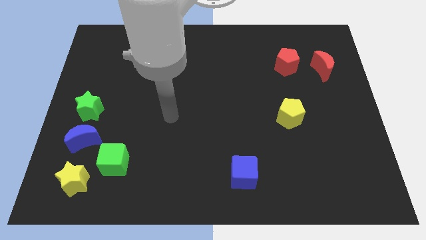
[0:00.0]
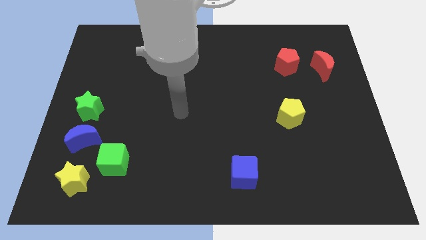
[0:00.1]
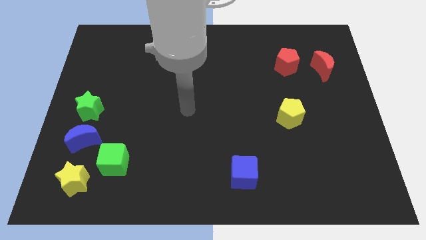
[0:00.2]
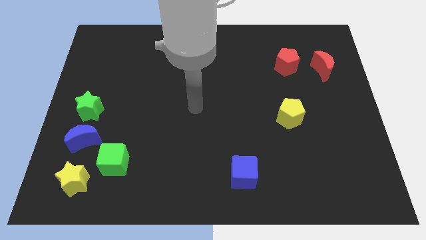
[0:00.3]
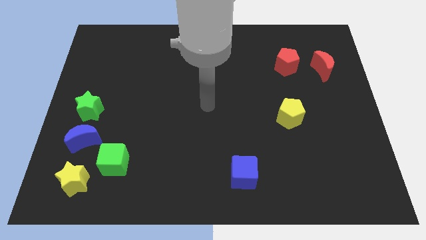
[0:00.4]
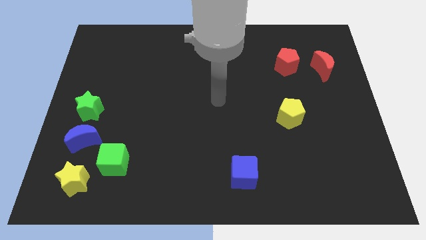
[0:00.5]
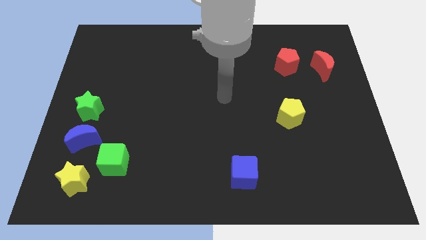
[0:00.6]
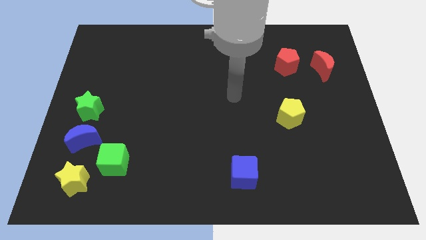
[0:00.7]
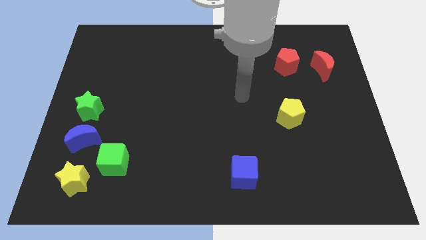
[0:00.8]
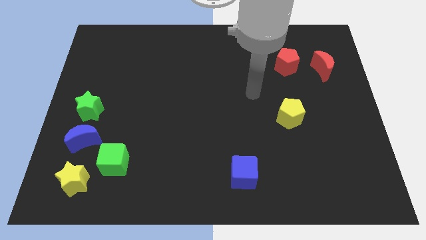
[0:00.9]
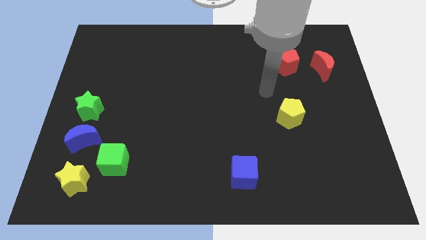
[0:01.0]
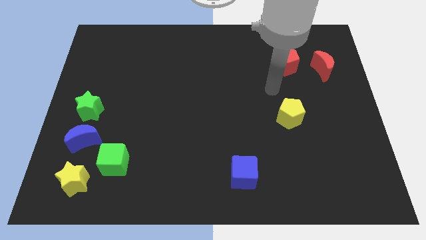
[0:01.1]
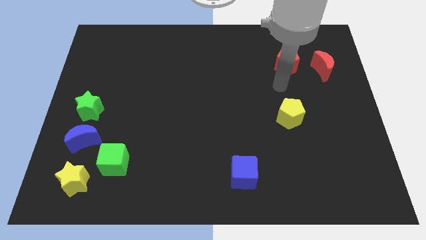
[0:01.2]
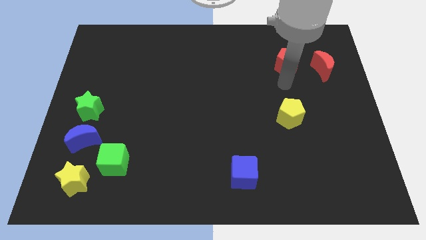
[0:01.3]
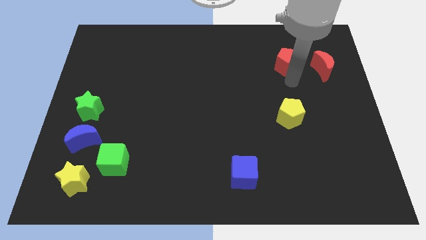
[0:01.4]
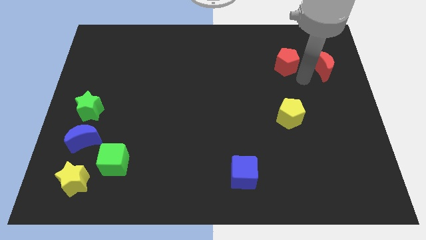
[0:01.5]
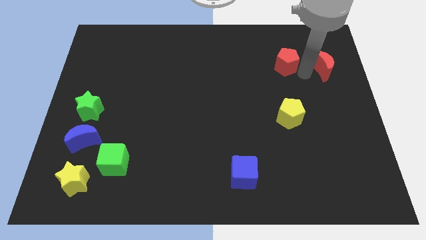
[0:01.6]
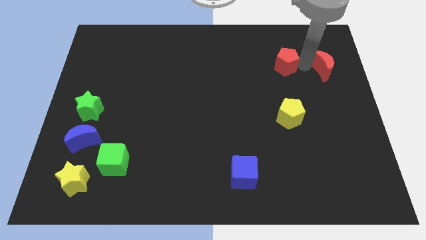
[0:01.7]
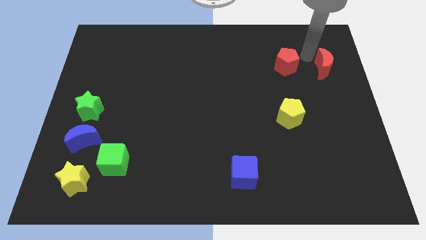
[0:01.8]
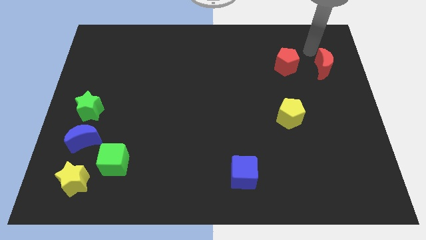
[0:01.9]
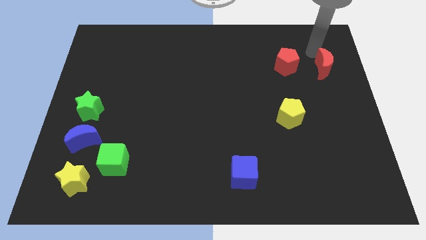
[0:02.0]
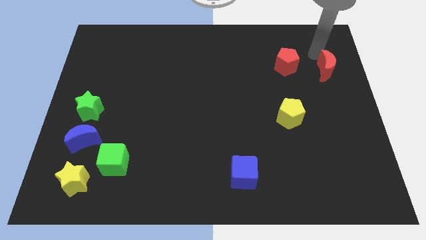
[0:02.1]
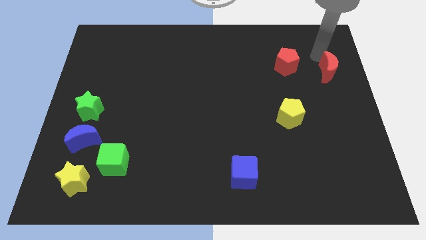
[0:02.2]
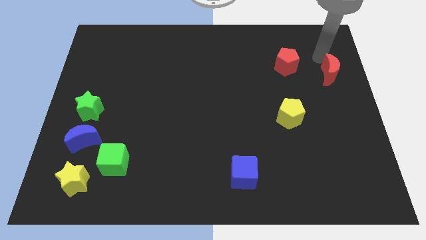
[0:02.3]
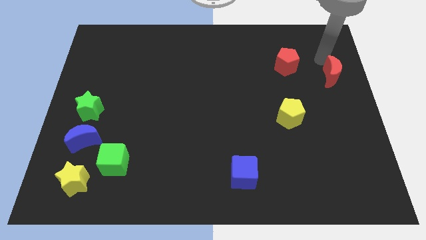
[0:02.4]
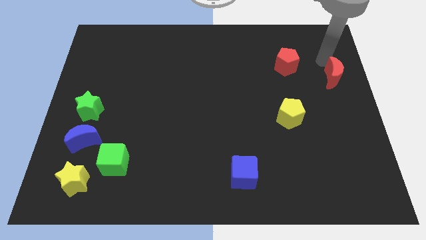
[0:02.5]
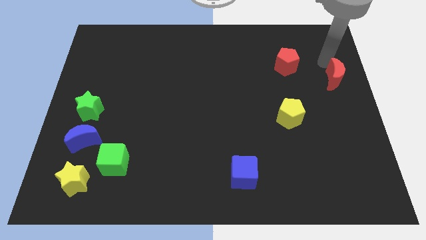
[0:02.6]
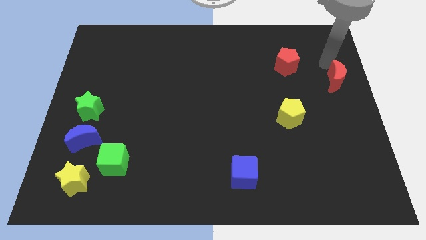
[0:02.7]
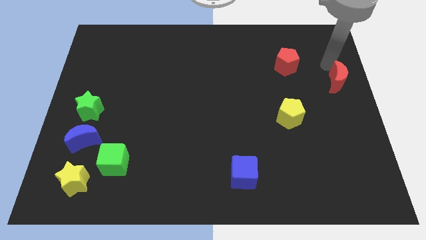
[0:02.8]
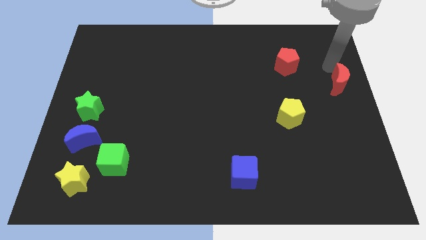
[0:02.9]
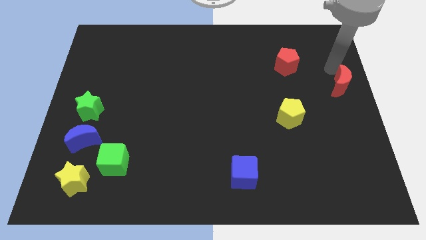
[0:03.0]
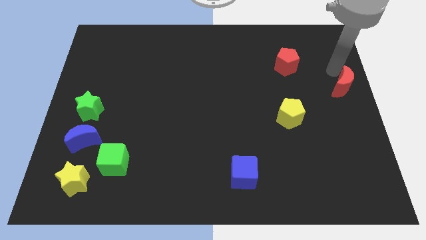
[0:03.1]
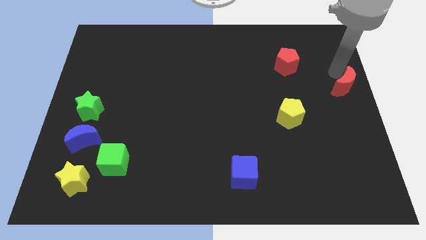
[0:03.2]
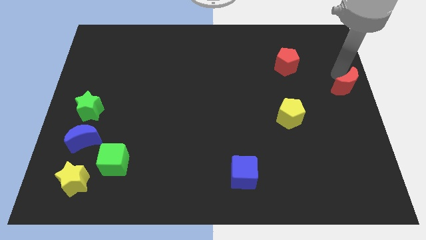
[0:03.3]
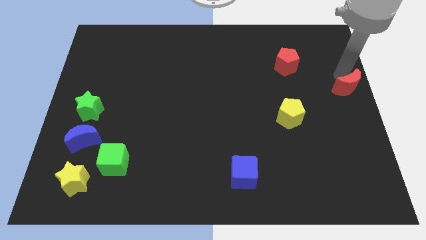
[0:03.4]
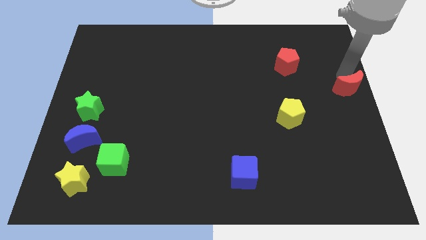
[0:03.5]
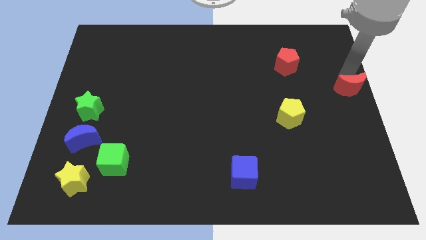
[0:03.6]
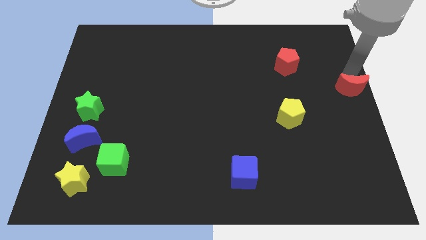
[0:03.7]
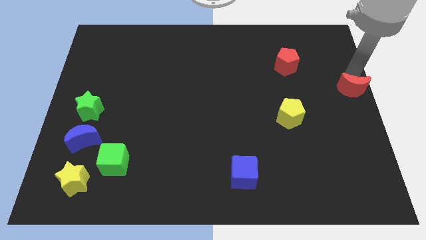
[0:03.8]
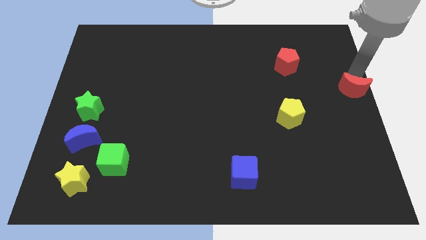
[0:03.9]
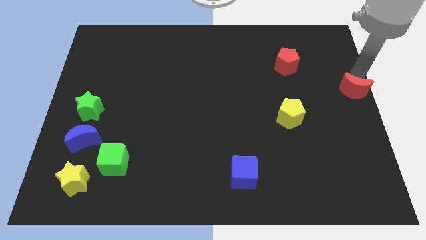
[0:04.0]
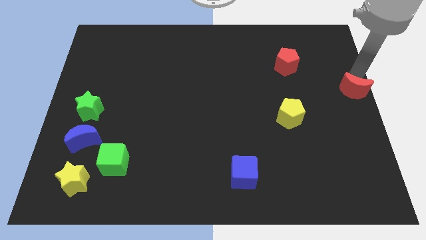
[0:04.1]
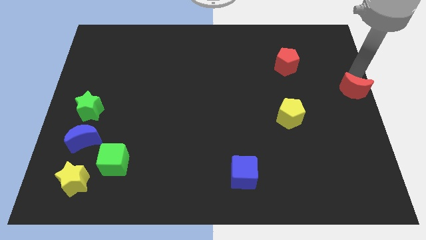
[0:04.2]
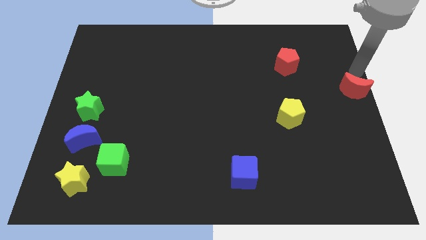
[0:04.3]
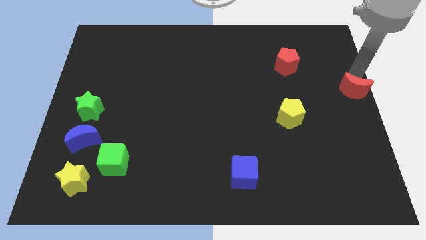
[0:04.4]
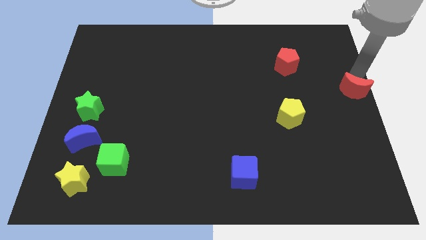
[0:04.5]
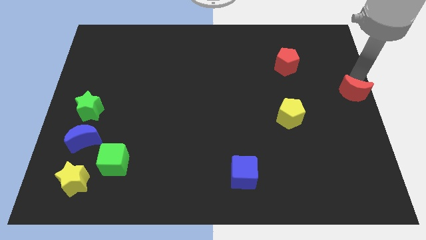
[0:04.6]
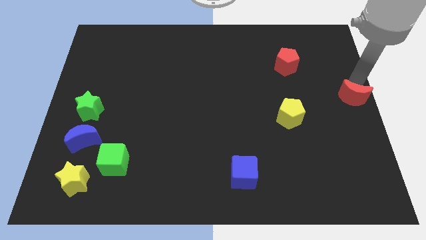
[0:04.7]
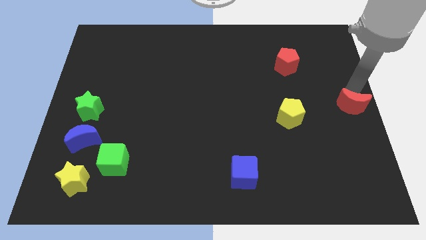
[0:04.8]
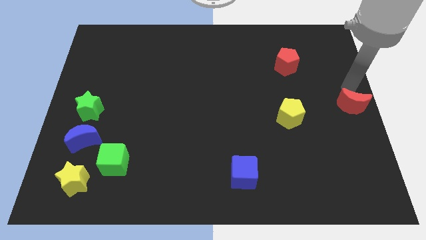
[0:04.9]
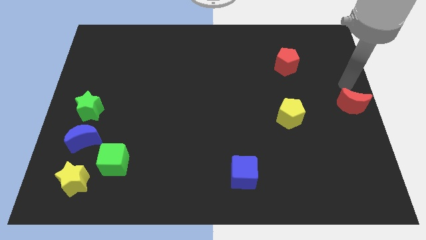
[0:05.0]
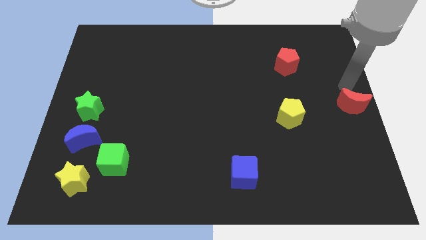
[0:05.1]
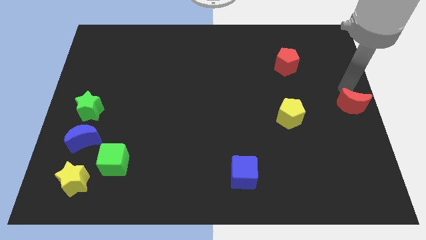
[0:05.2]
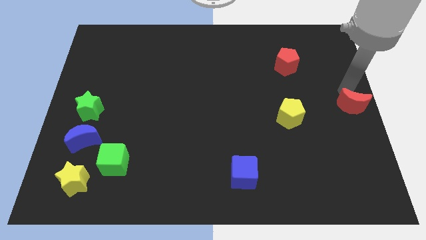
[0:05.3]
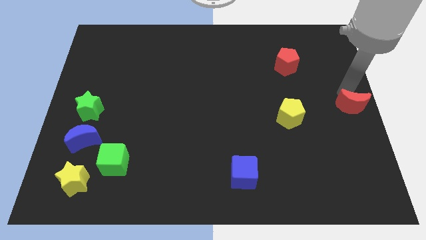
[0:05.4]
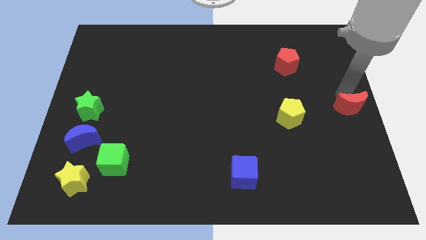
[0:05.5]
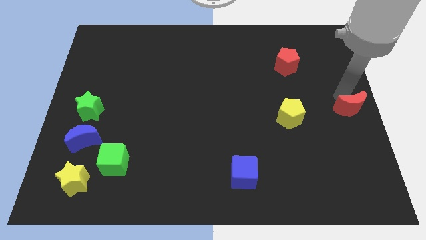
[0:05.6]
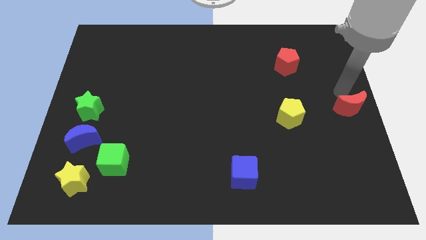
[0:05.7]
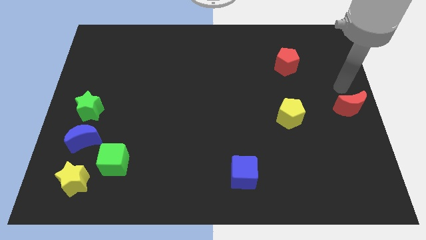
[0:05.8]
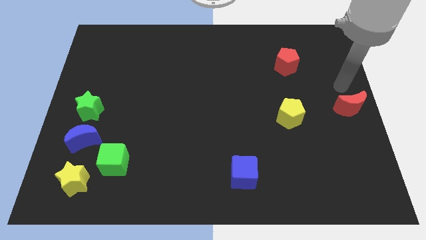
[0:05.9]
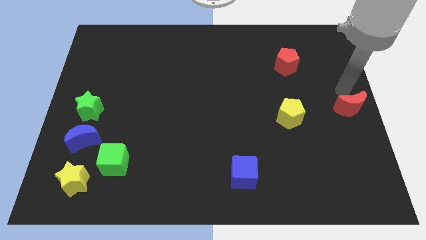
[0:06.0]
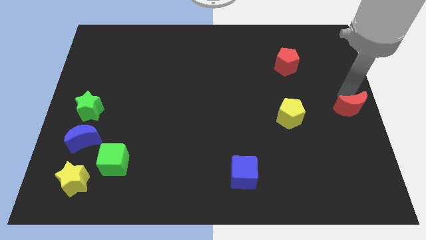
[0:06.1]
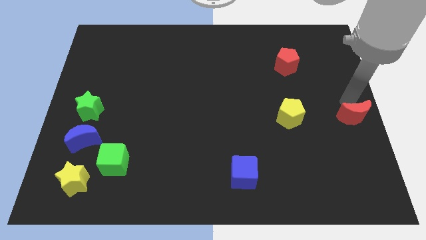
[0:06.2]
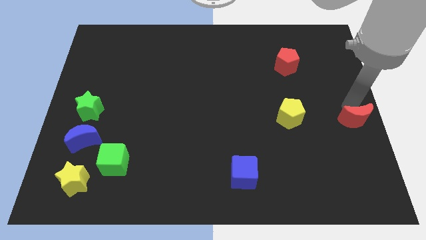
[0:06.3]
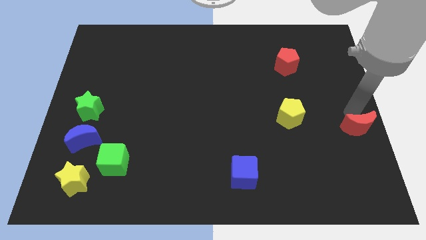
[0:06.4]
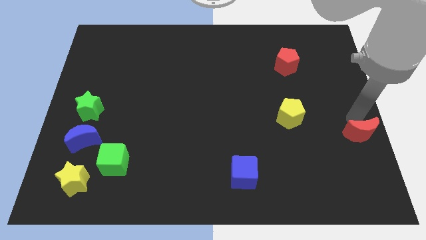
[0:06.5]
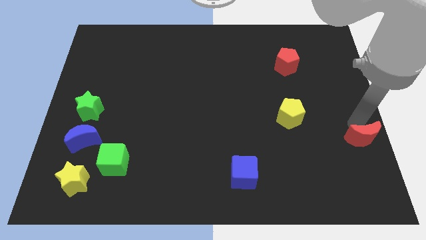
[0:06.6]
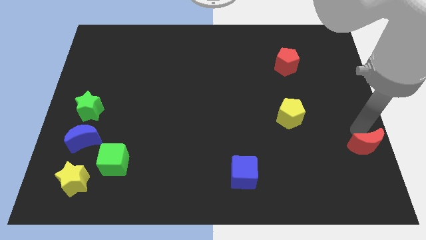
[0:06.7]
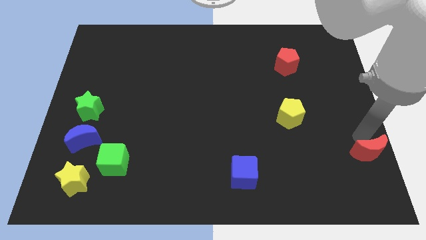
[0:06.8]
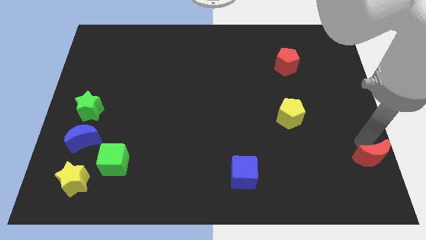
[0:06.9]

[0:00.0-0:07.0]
put the red moon to the bottom right
